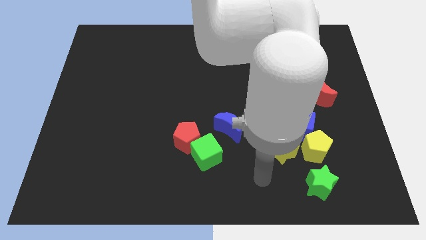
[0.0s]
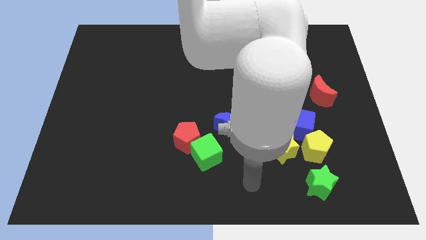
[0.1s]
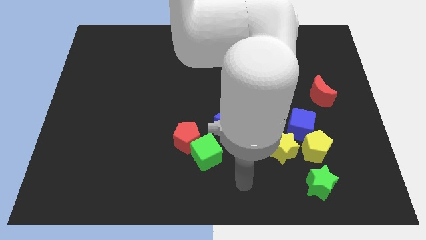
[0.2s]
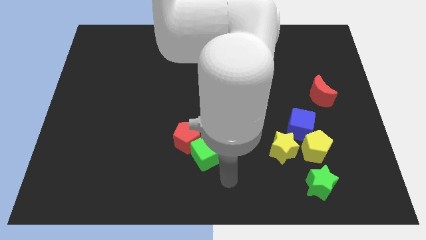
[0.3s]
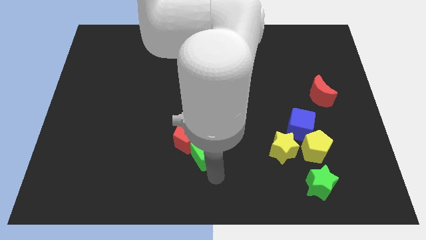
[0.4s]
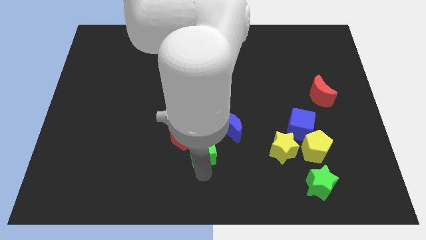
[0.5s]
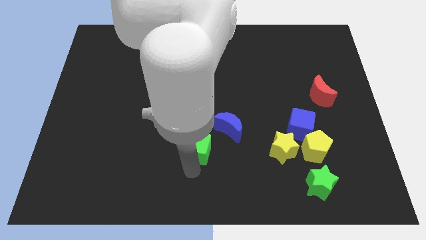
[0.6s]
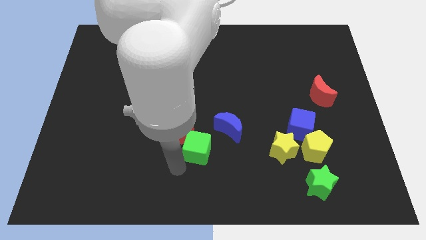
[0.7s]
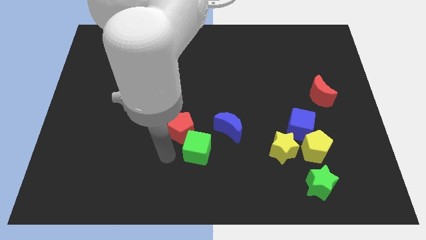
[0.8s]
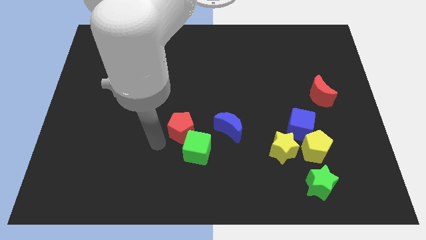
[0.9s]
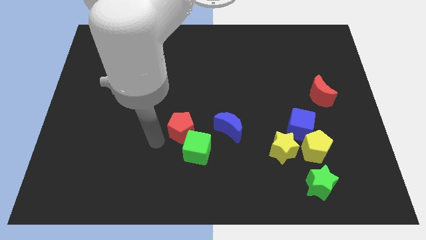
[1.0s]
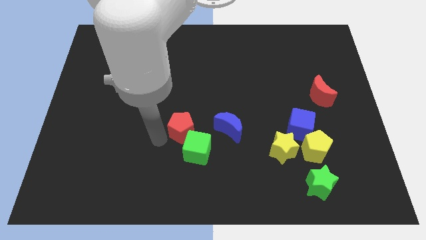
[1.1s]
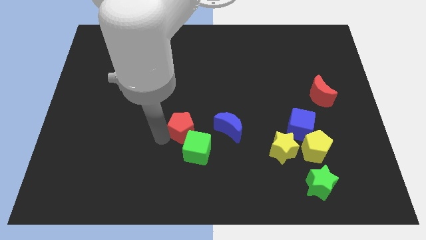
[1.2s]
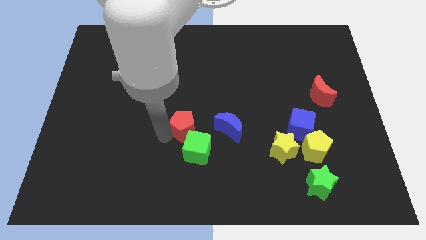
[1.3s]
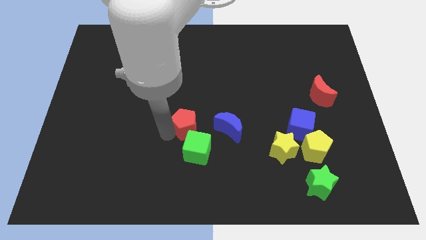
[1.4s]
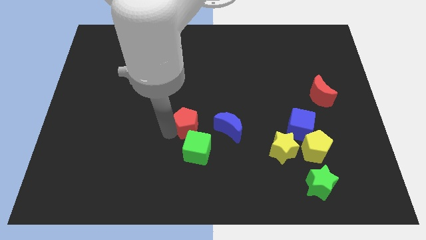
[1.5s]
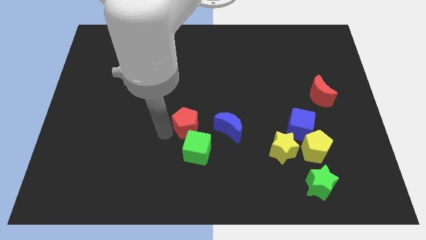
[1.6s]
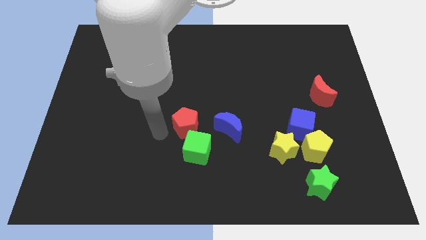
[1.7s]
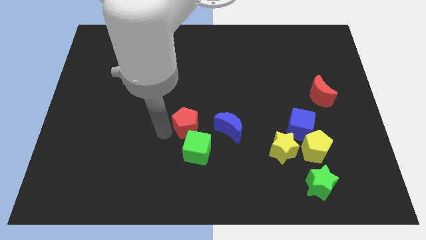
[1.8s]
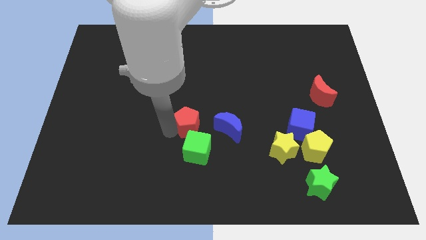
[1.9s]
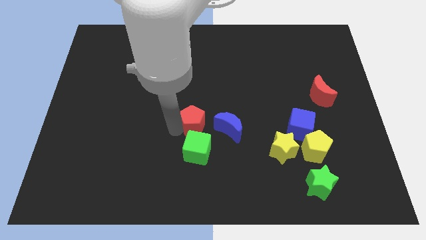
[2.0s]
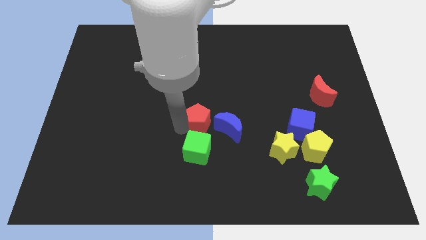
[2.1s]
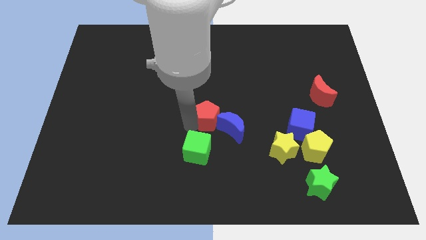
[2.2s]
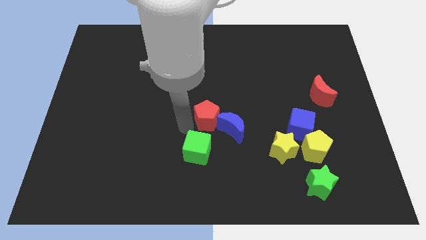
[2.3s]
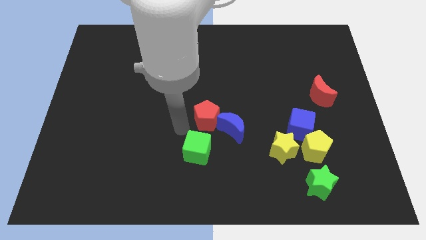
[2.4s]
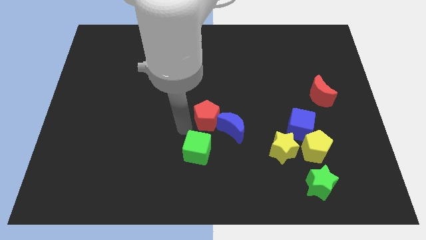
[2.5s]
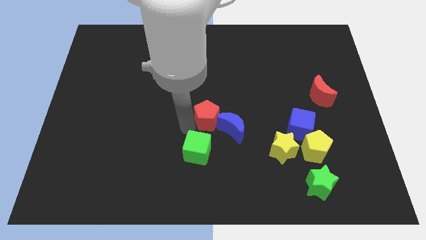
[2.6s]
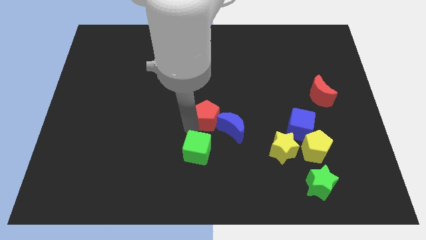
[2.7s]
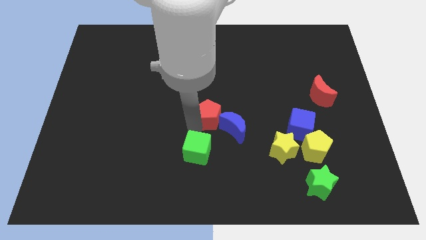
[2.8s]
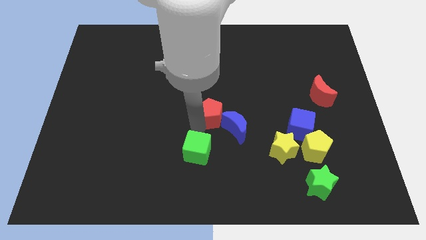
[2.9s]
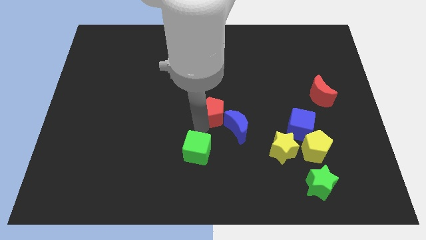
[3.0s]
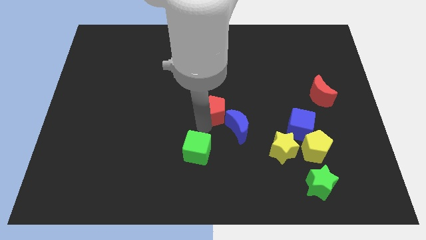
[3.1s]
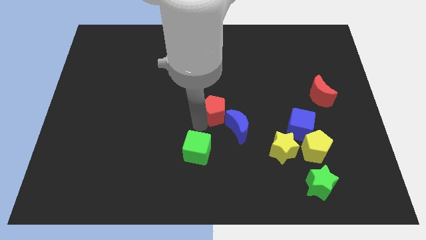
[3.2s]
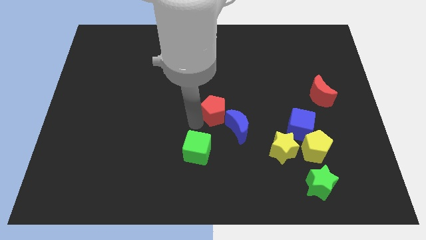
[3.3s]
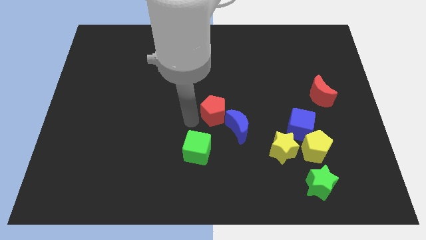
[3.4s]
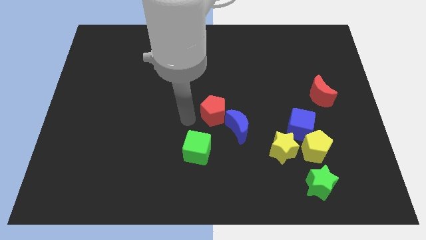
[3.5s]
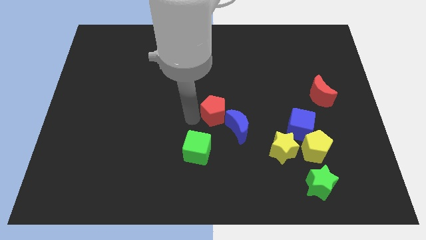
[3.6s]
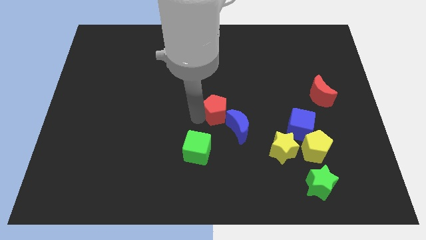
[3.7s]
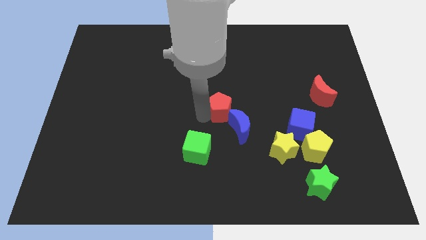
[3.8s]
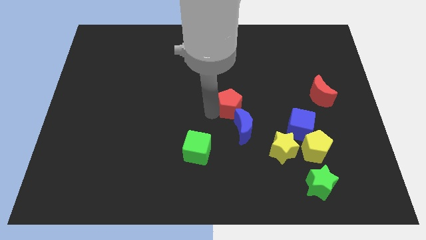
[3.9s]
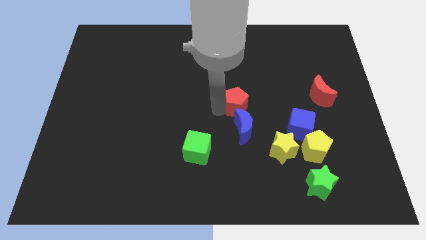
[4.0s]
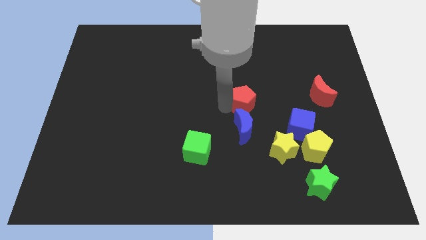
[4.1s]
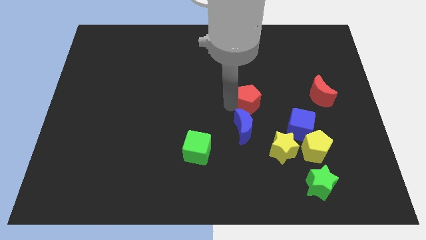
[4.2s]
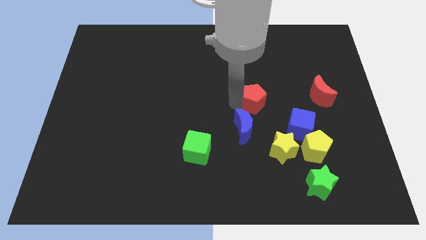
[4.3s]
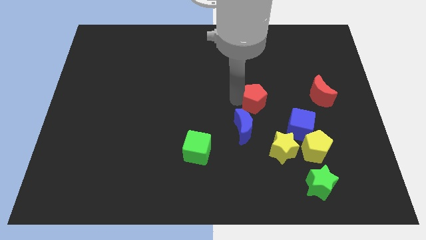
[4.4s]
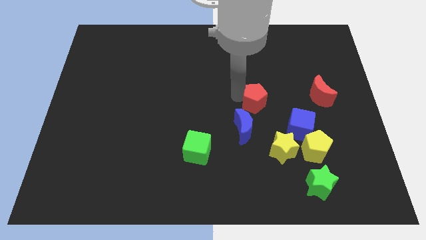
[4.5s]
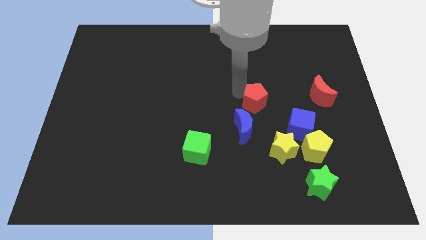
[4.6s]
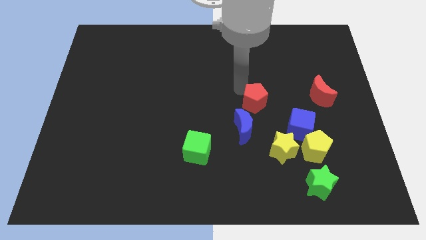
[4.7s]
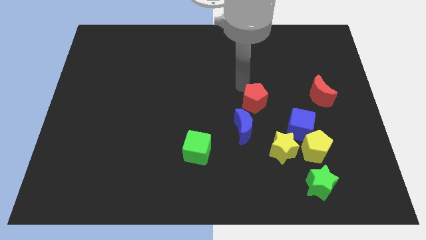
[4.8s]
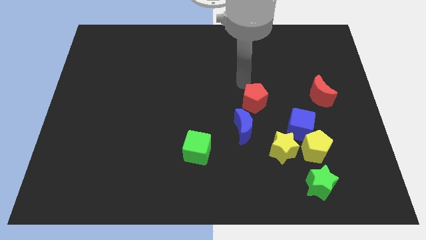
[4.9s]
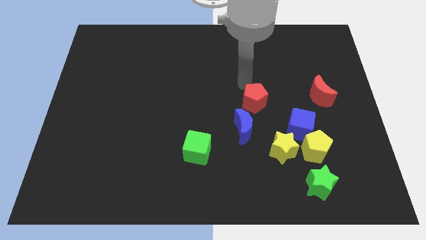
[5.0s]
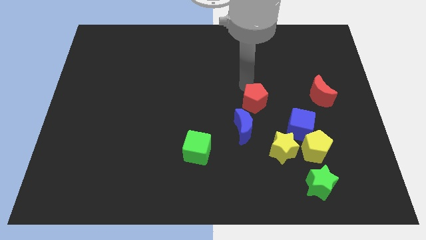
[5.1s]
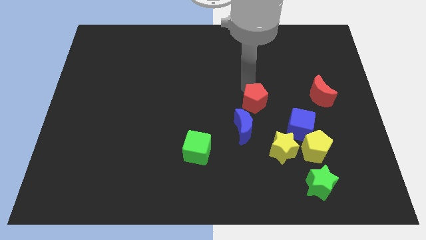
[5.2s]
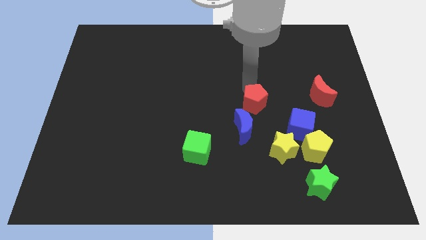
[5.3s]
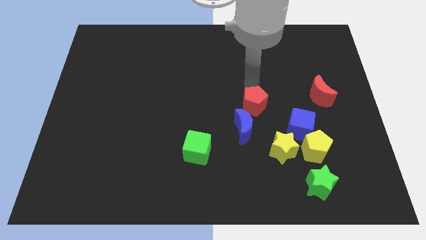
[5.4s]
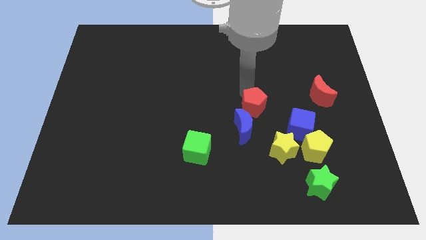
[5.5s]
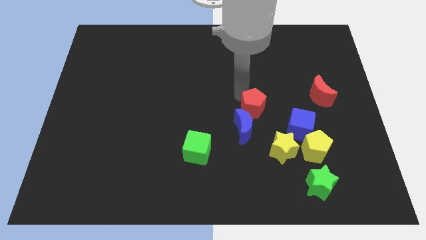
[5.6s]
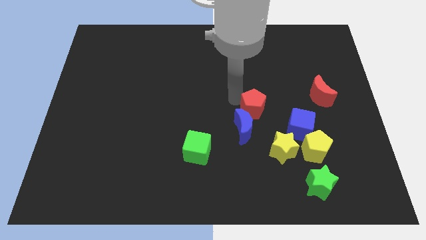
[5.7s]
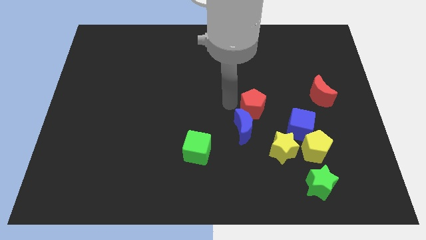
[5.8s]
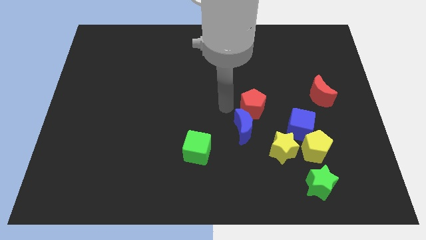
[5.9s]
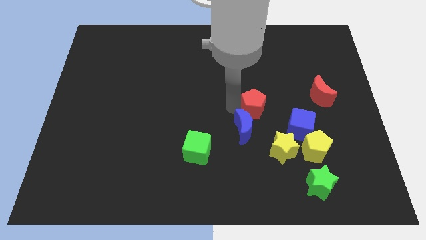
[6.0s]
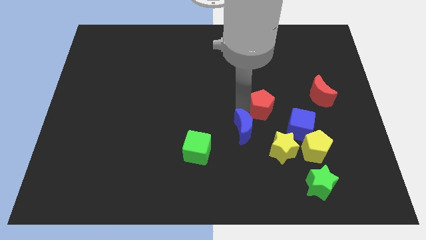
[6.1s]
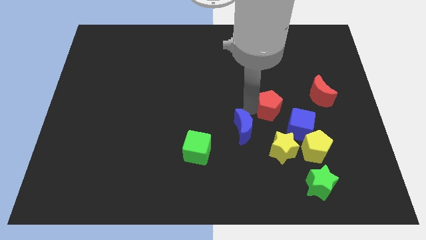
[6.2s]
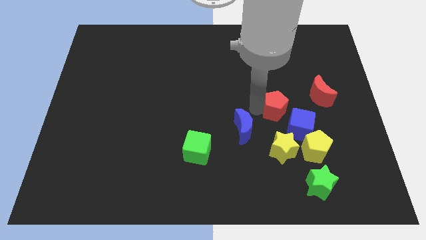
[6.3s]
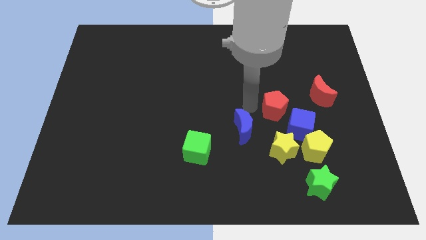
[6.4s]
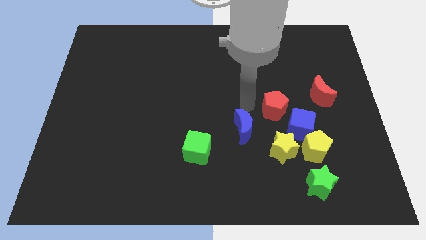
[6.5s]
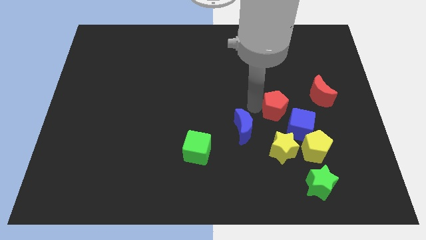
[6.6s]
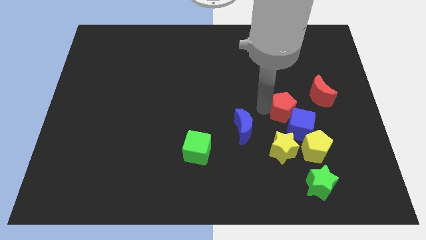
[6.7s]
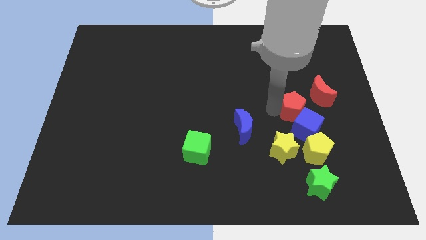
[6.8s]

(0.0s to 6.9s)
slide the red pentagon to the right

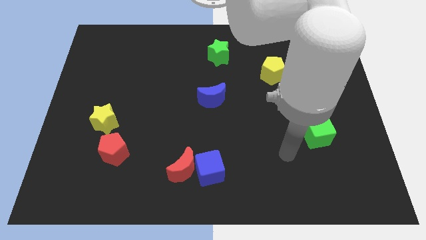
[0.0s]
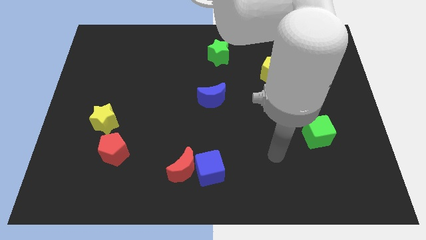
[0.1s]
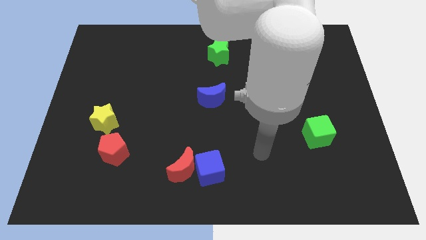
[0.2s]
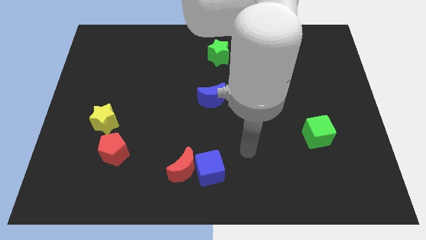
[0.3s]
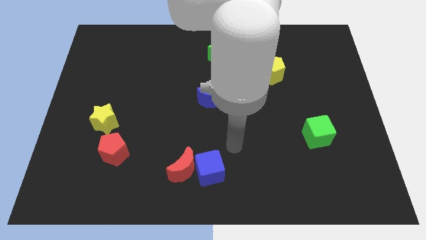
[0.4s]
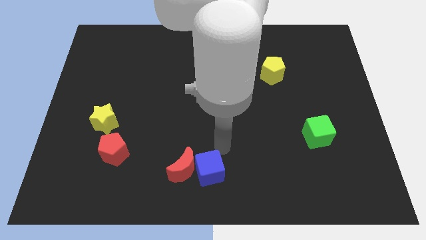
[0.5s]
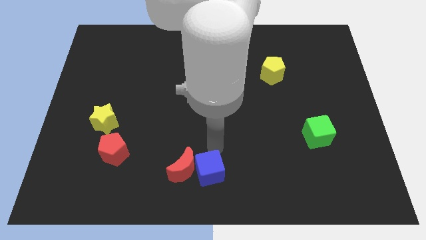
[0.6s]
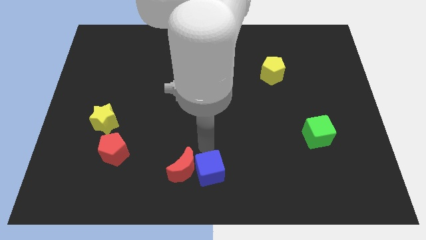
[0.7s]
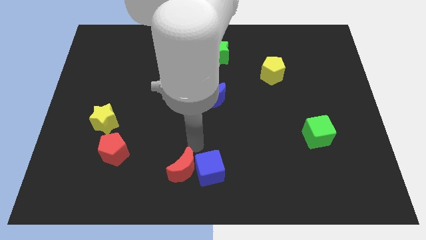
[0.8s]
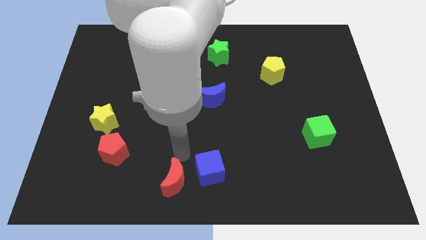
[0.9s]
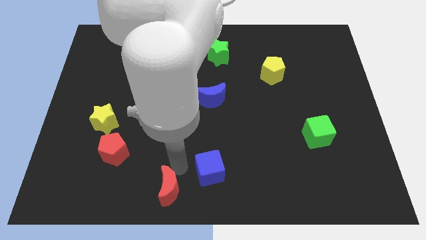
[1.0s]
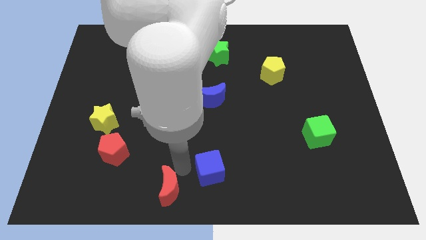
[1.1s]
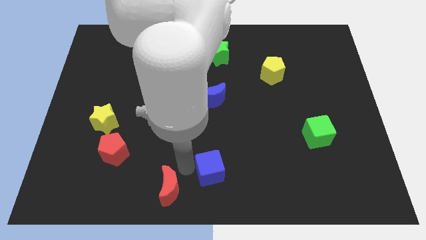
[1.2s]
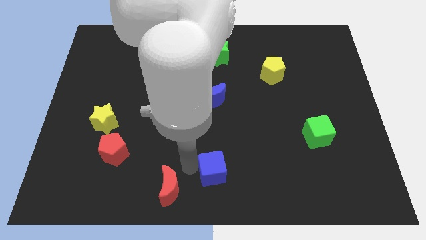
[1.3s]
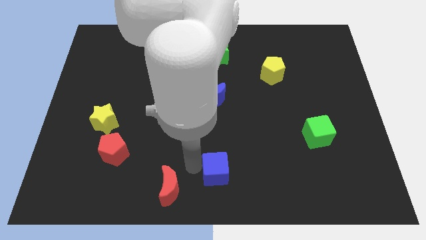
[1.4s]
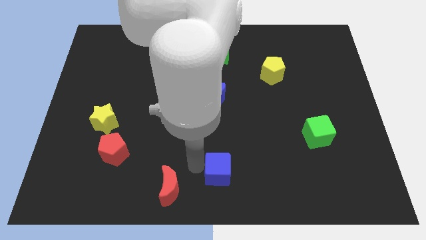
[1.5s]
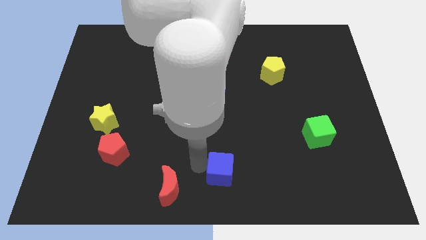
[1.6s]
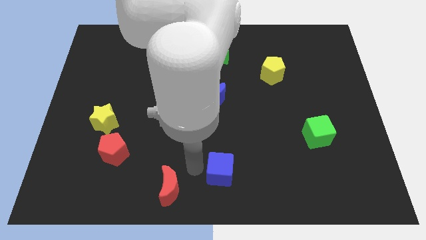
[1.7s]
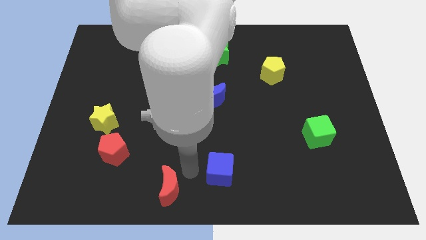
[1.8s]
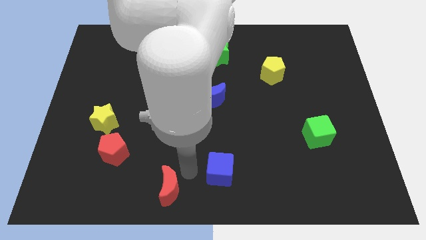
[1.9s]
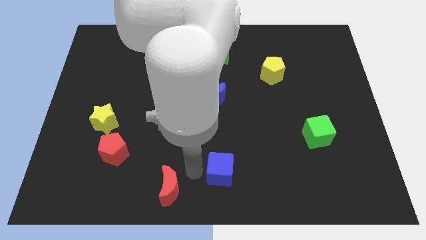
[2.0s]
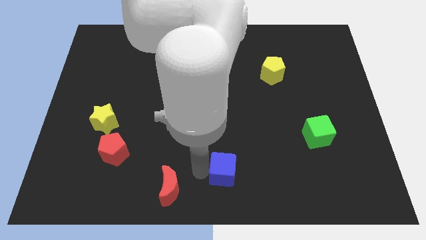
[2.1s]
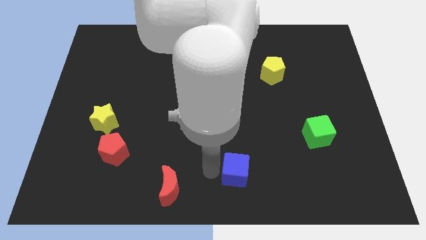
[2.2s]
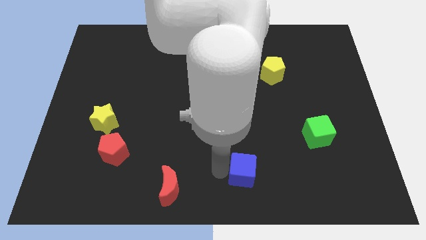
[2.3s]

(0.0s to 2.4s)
slide the blue cube to the right somewhat
